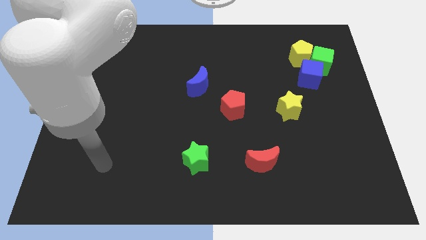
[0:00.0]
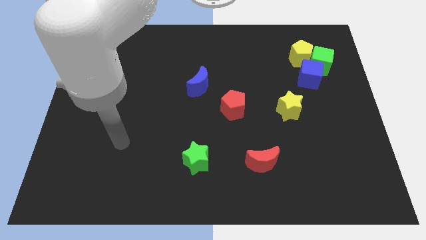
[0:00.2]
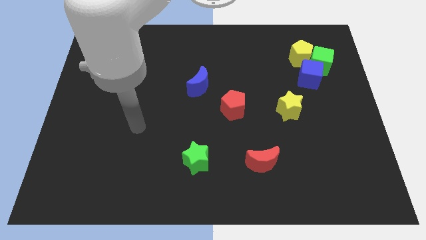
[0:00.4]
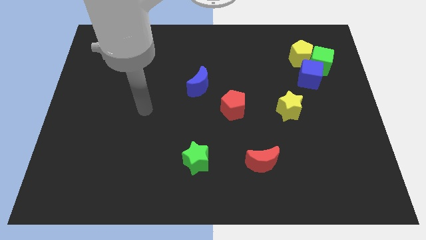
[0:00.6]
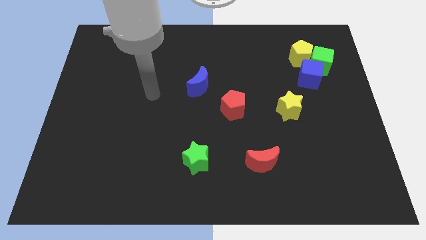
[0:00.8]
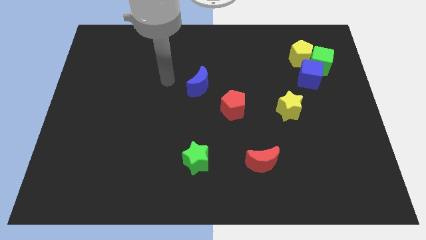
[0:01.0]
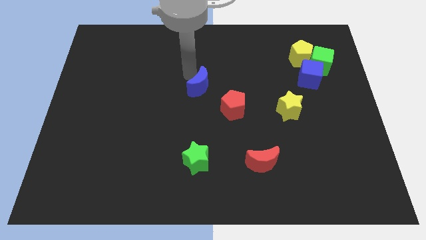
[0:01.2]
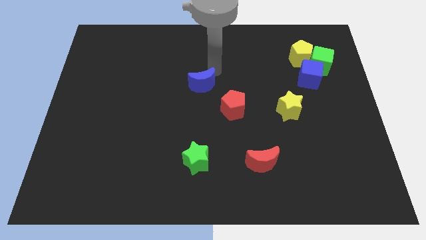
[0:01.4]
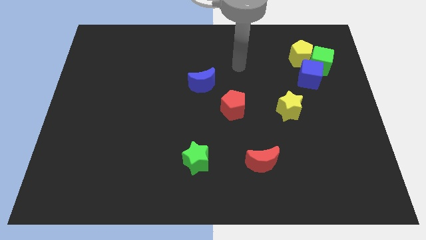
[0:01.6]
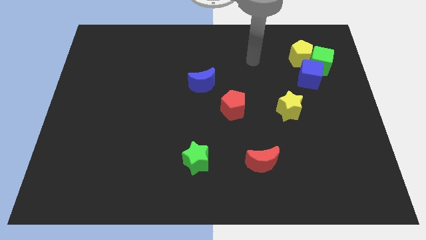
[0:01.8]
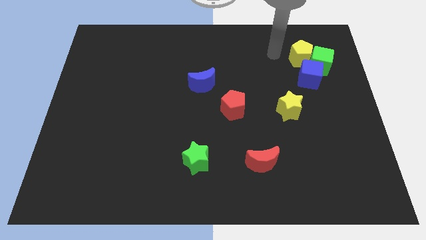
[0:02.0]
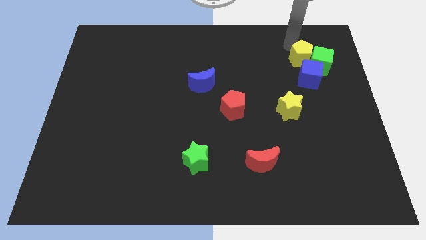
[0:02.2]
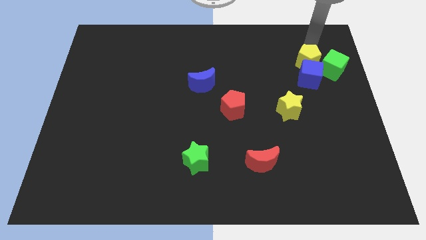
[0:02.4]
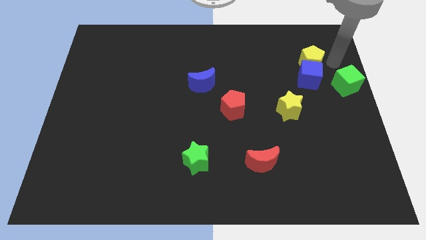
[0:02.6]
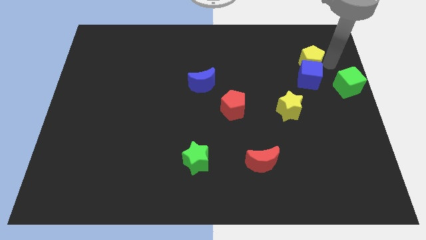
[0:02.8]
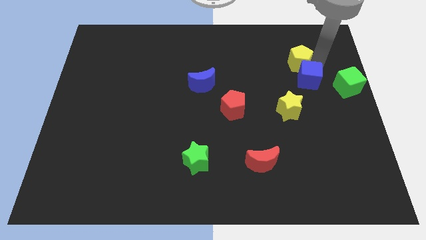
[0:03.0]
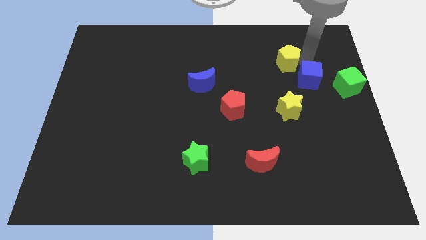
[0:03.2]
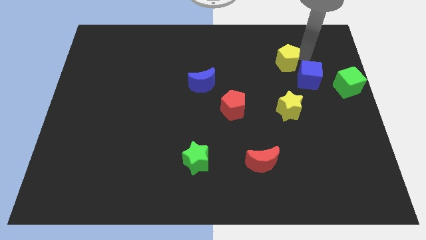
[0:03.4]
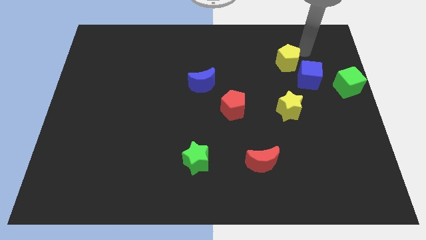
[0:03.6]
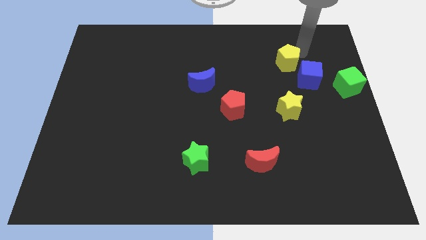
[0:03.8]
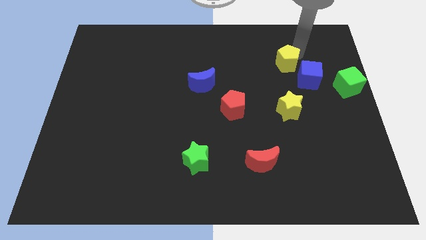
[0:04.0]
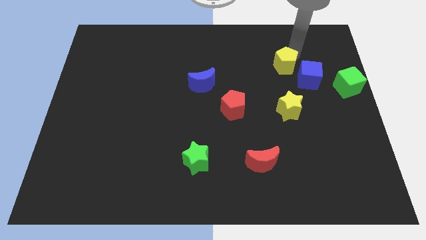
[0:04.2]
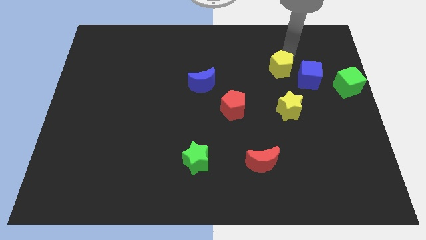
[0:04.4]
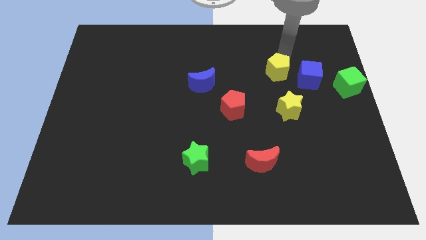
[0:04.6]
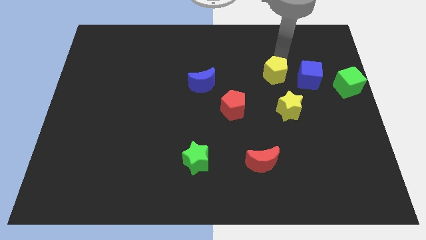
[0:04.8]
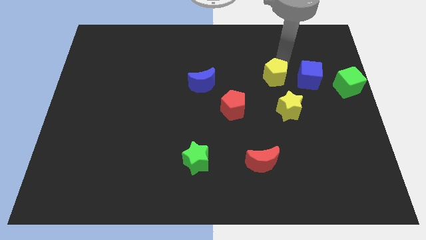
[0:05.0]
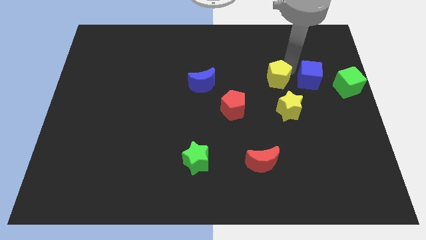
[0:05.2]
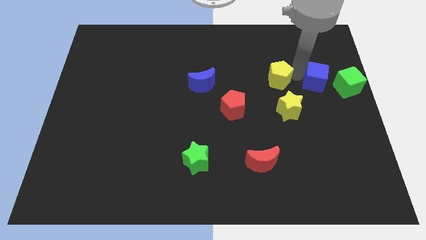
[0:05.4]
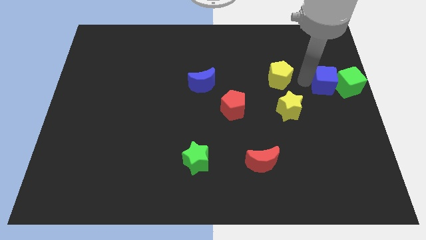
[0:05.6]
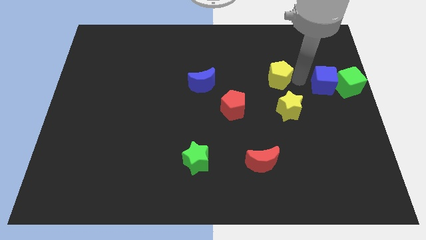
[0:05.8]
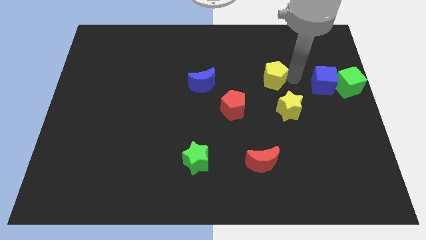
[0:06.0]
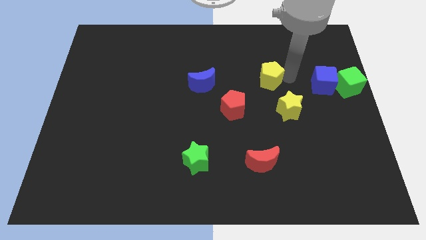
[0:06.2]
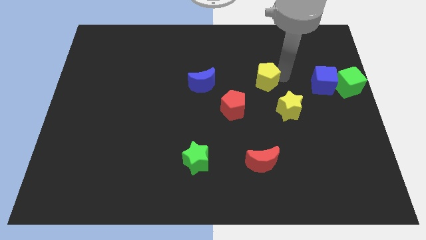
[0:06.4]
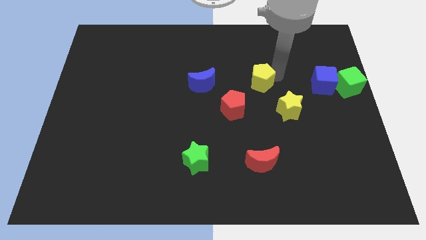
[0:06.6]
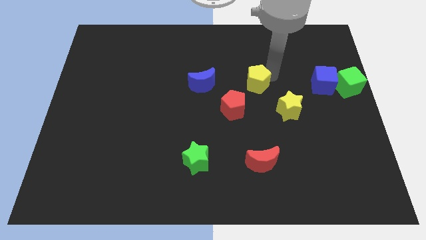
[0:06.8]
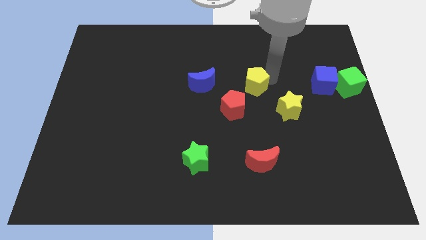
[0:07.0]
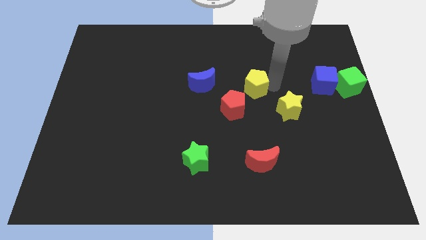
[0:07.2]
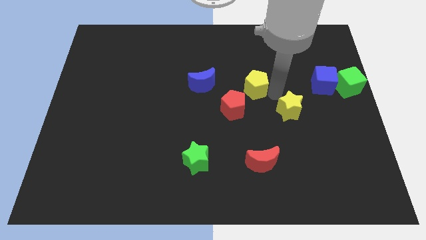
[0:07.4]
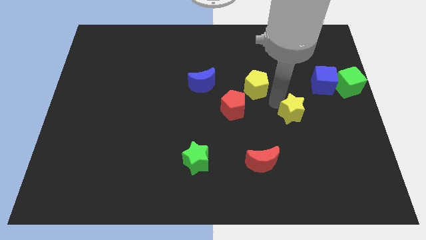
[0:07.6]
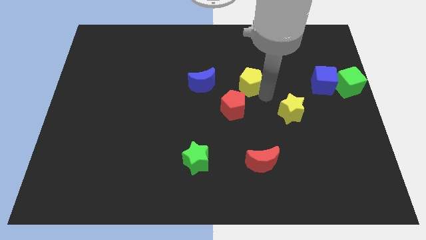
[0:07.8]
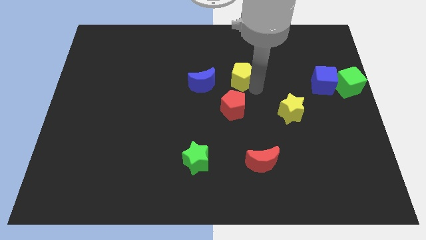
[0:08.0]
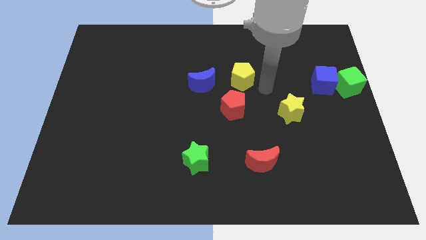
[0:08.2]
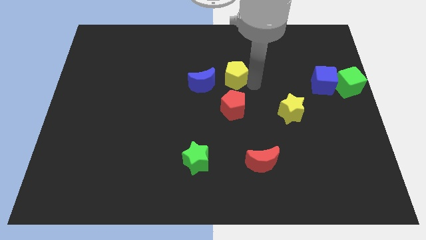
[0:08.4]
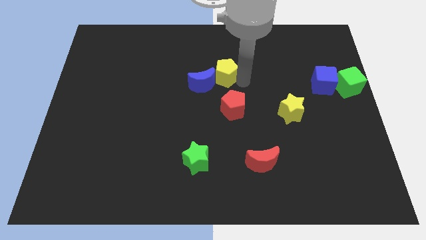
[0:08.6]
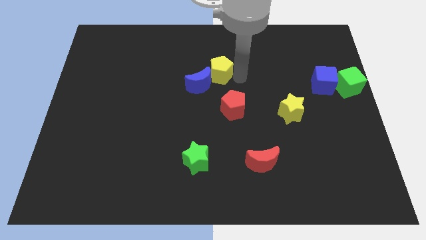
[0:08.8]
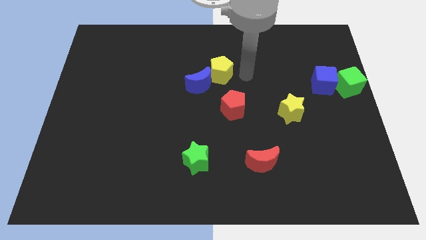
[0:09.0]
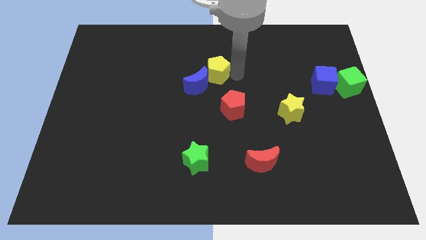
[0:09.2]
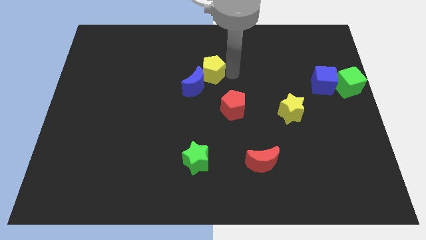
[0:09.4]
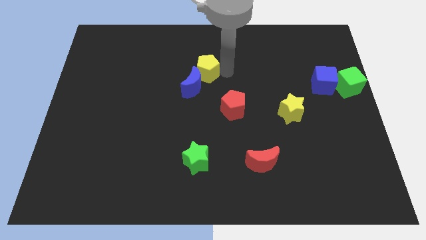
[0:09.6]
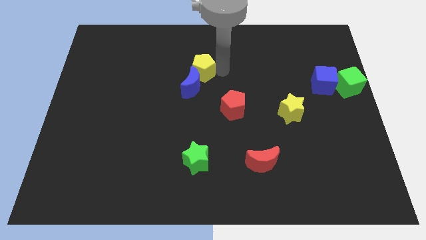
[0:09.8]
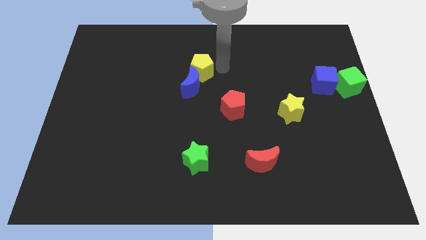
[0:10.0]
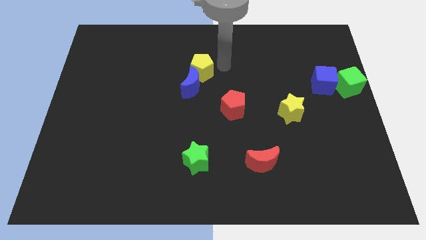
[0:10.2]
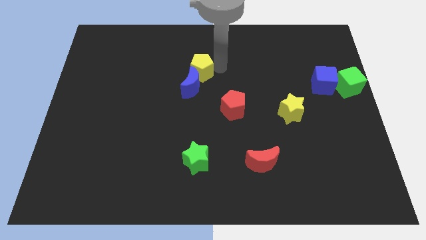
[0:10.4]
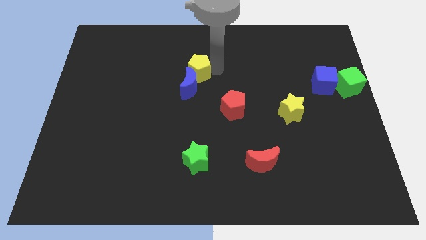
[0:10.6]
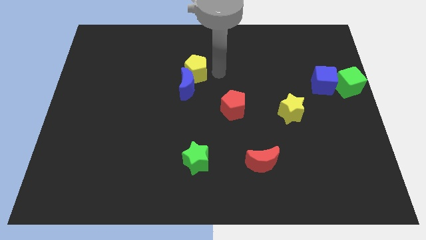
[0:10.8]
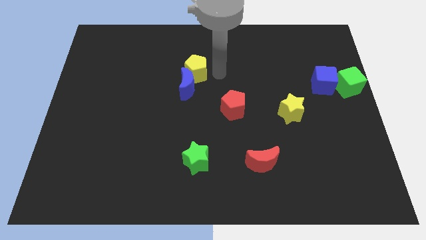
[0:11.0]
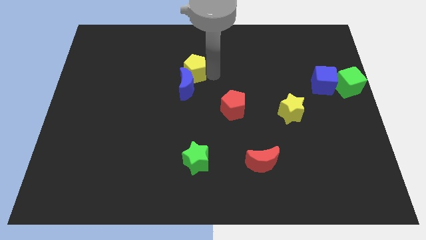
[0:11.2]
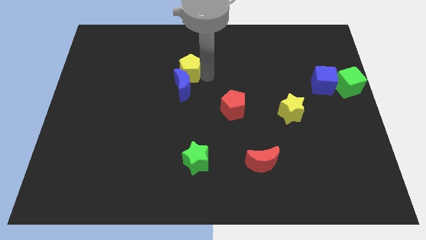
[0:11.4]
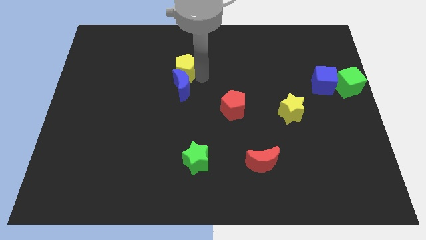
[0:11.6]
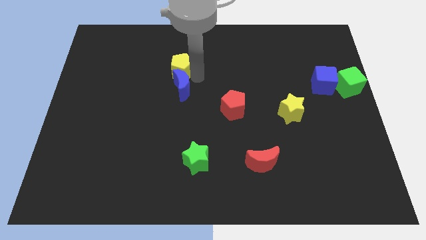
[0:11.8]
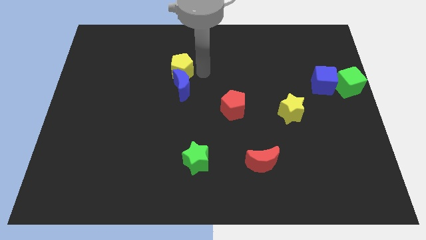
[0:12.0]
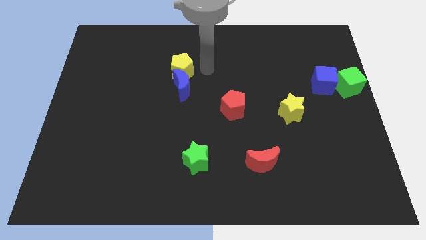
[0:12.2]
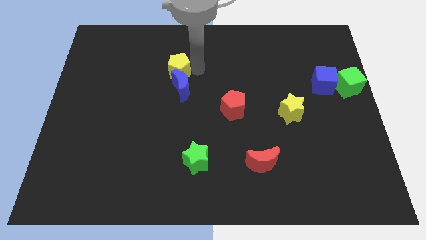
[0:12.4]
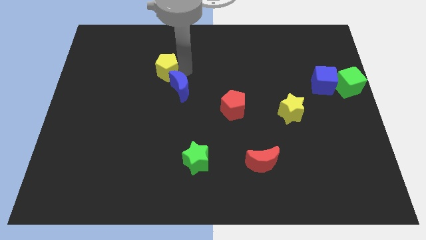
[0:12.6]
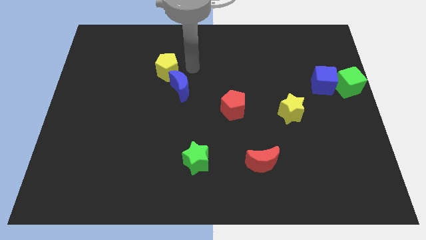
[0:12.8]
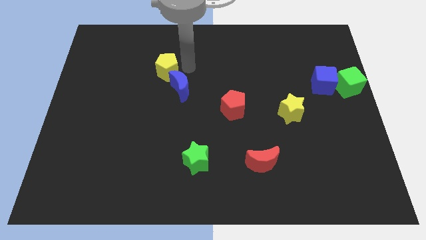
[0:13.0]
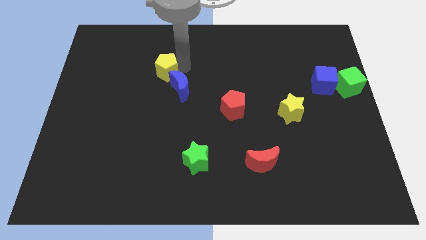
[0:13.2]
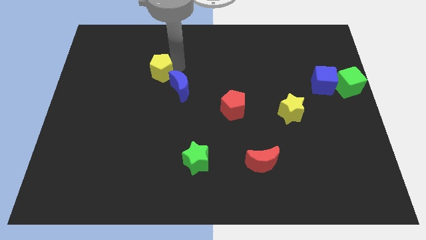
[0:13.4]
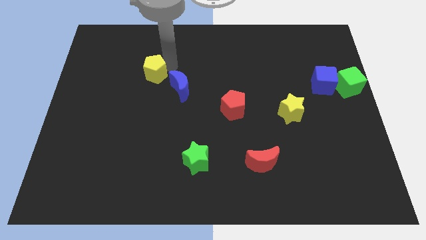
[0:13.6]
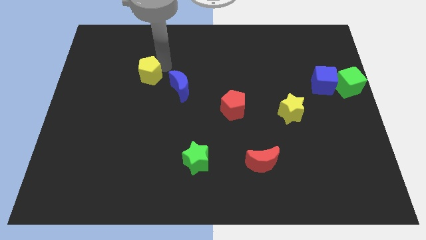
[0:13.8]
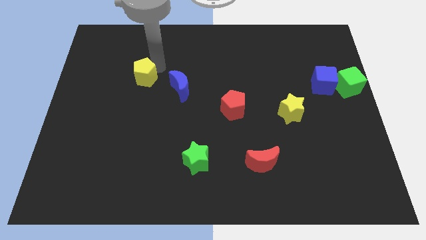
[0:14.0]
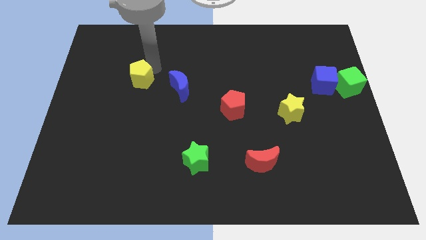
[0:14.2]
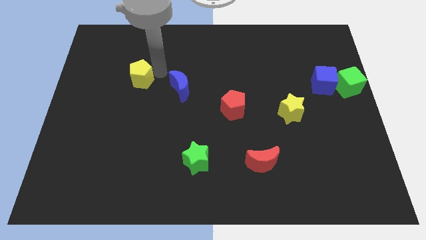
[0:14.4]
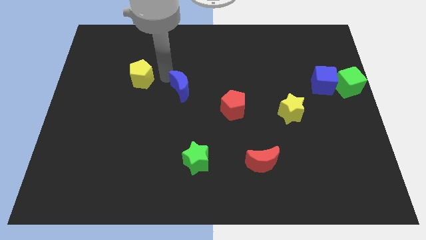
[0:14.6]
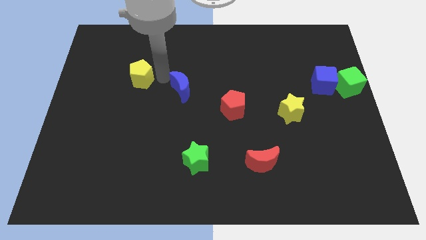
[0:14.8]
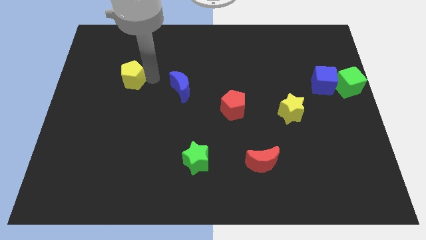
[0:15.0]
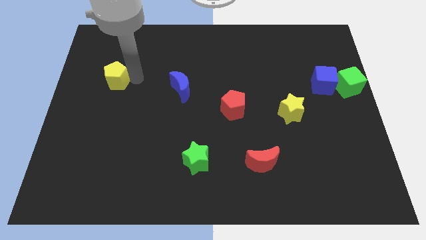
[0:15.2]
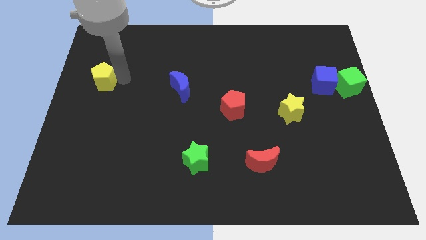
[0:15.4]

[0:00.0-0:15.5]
slide the yellow pentagon to the left side of the board
